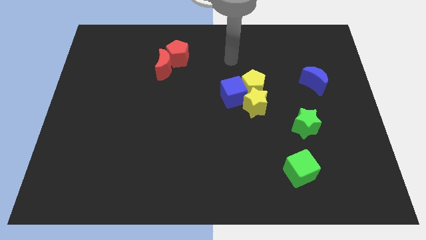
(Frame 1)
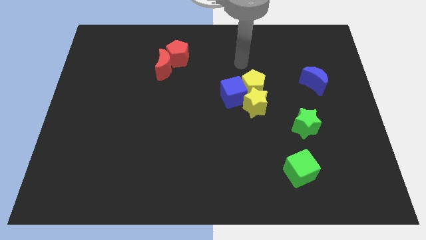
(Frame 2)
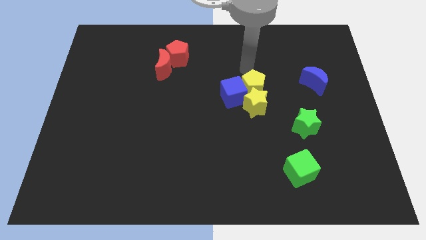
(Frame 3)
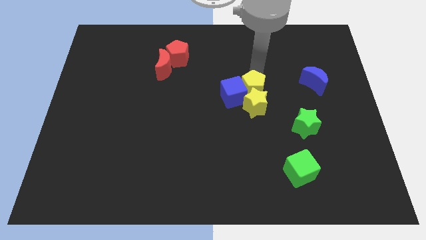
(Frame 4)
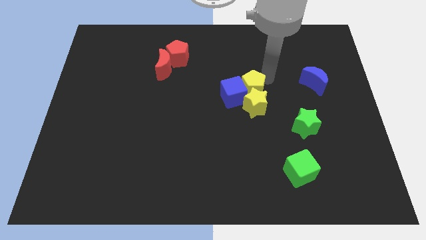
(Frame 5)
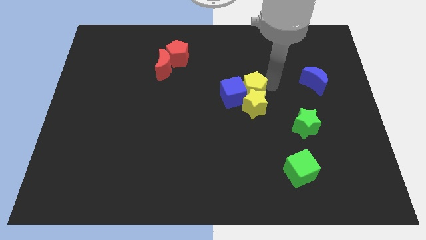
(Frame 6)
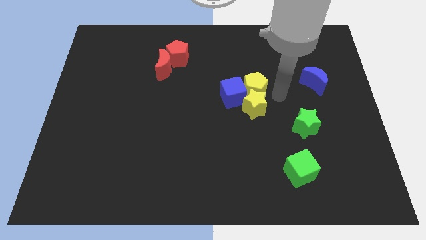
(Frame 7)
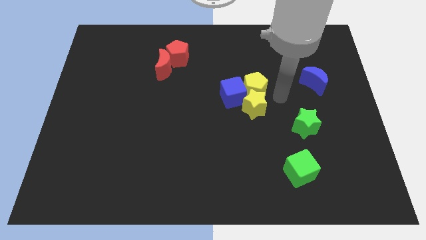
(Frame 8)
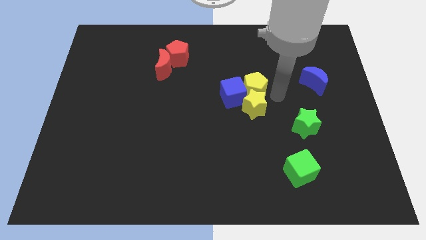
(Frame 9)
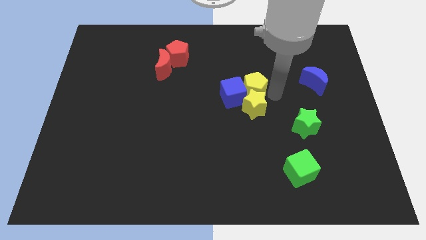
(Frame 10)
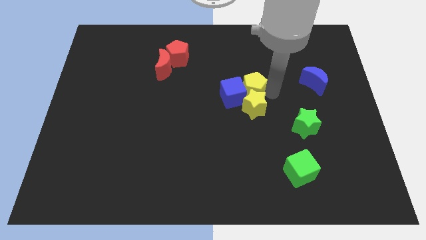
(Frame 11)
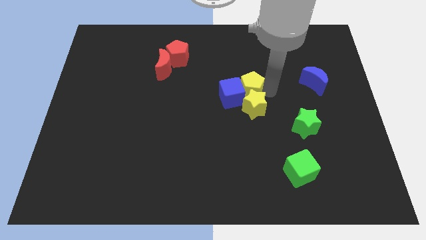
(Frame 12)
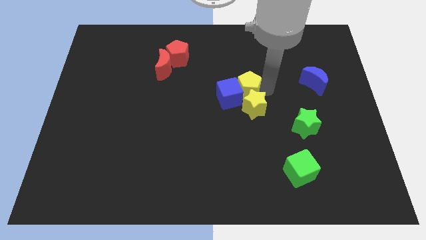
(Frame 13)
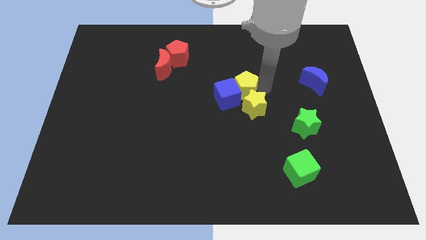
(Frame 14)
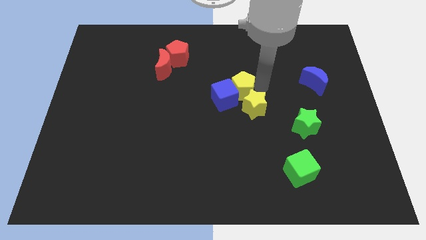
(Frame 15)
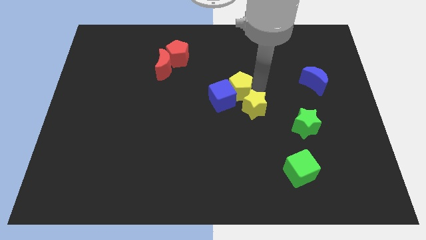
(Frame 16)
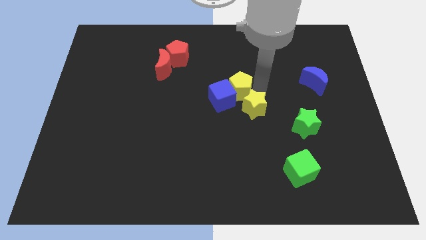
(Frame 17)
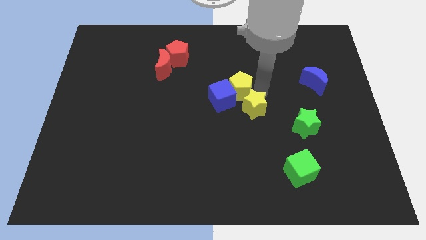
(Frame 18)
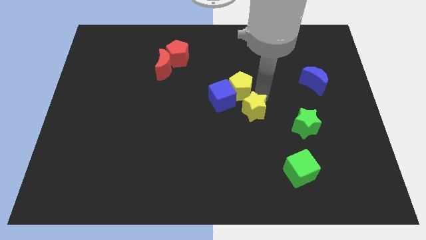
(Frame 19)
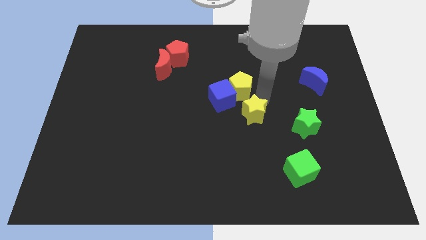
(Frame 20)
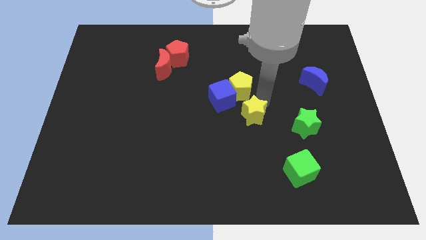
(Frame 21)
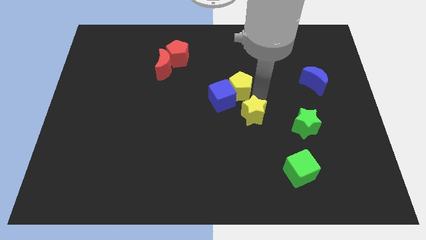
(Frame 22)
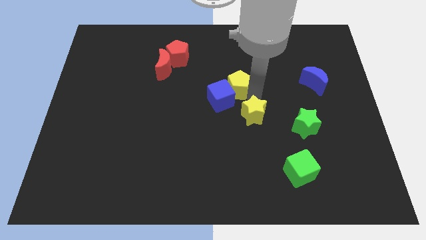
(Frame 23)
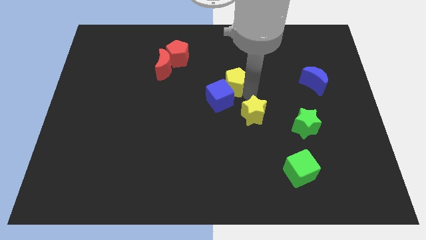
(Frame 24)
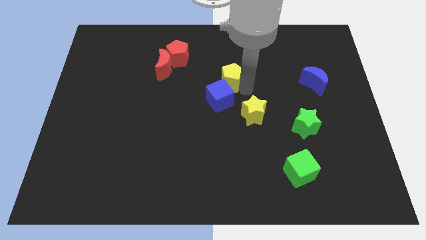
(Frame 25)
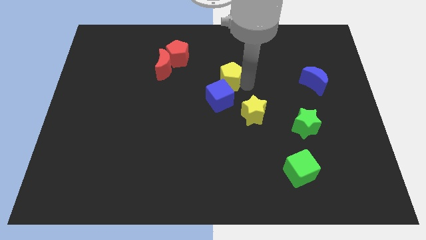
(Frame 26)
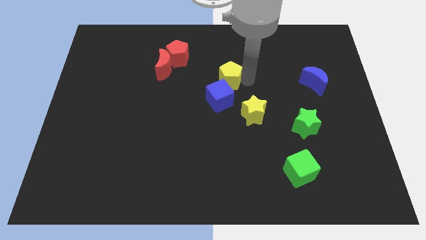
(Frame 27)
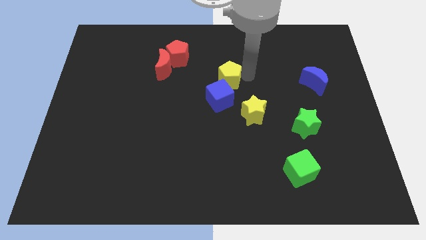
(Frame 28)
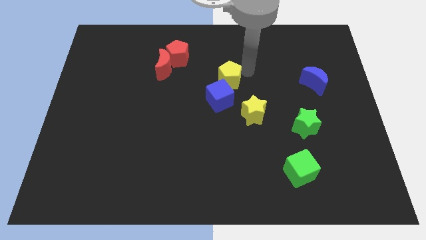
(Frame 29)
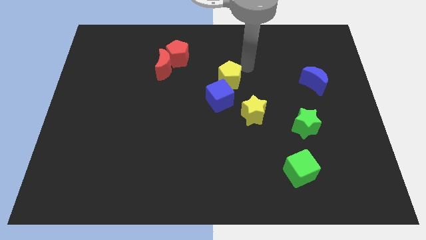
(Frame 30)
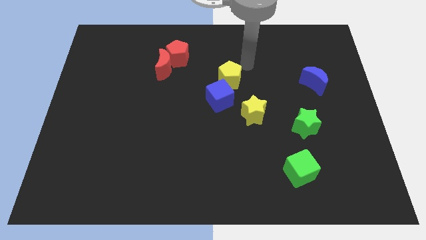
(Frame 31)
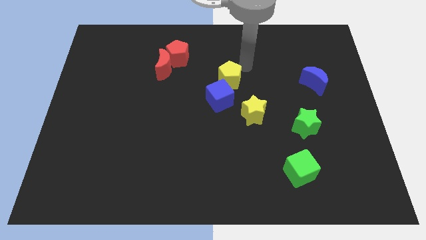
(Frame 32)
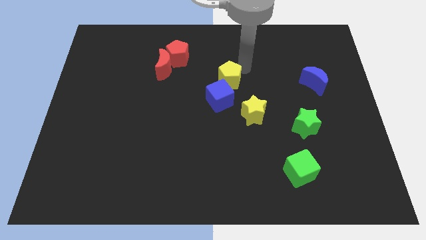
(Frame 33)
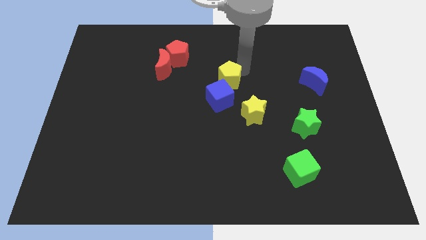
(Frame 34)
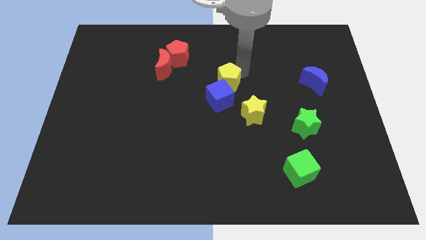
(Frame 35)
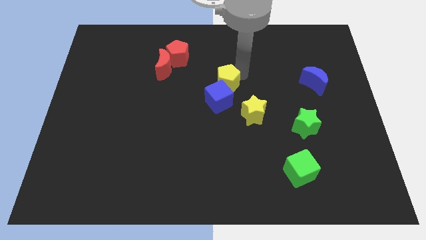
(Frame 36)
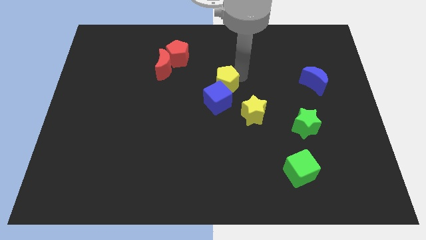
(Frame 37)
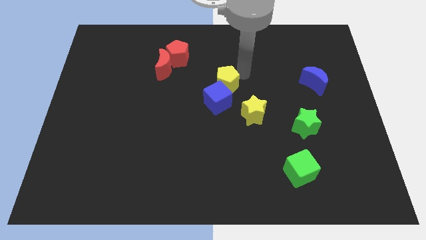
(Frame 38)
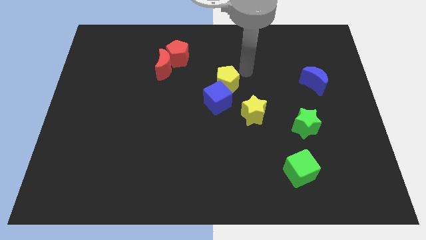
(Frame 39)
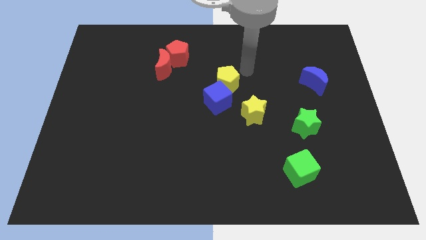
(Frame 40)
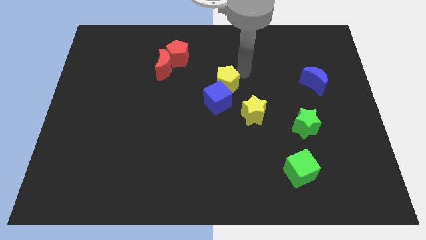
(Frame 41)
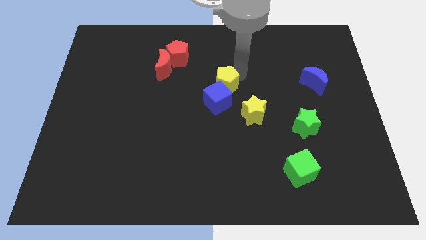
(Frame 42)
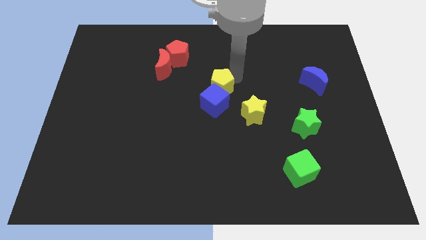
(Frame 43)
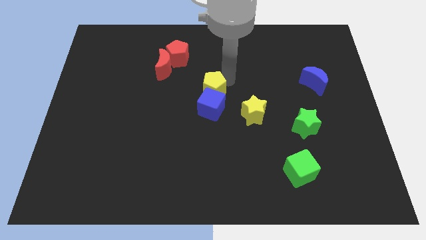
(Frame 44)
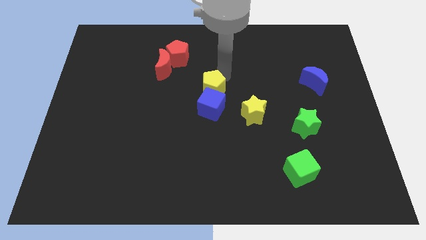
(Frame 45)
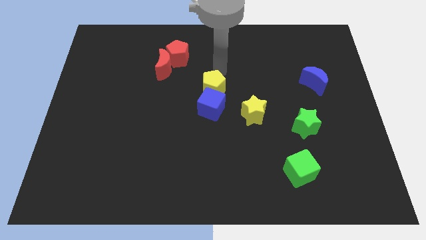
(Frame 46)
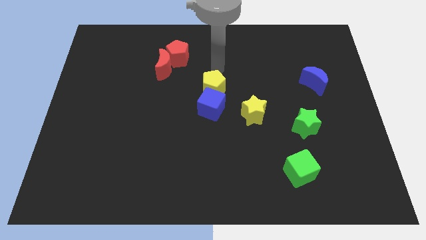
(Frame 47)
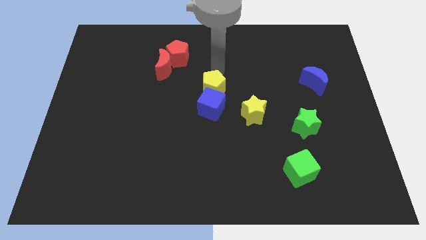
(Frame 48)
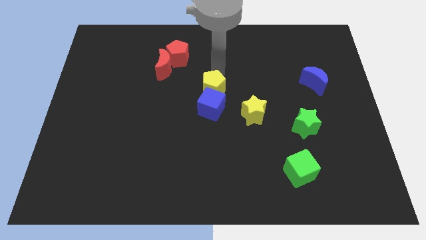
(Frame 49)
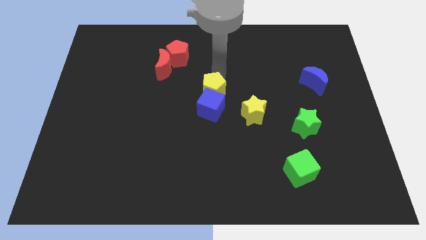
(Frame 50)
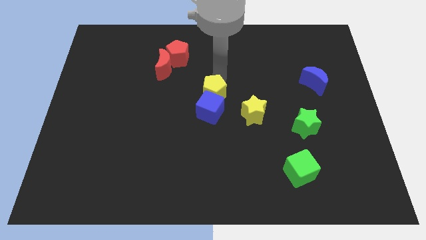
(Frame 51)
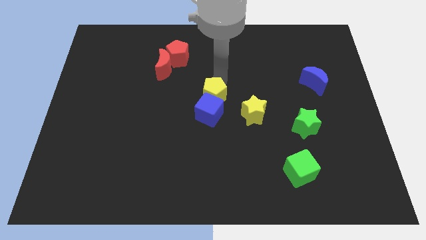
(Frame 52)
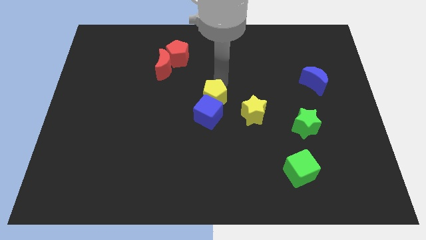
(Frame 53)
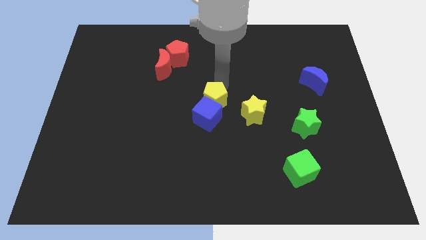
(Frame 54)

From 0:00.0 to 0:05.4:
push the yellow pentagon left of the yellow star

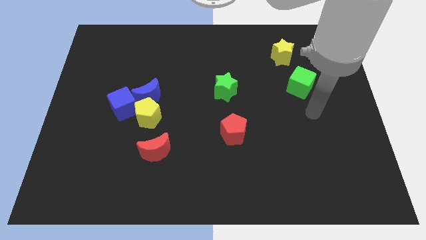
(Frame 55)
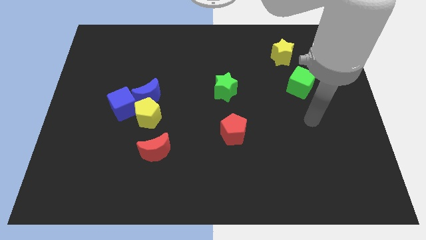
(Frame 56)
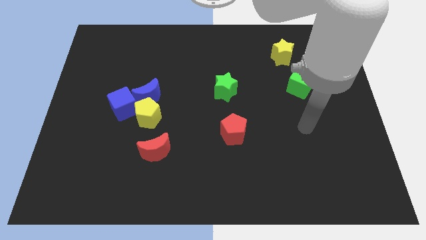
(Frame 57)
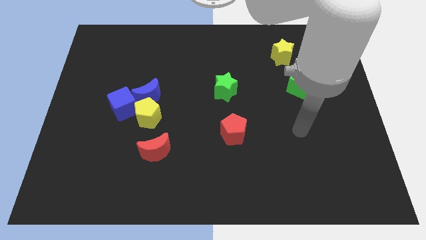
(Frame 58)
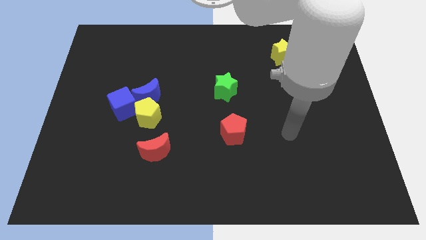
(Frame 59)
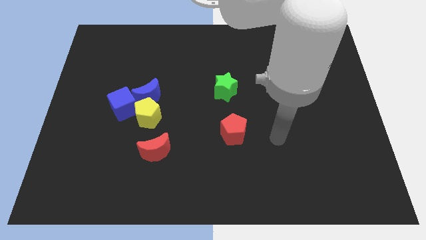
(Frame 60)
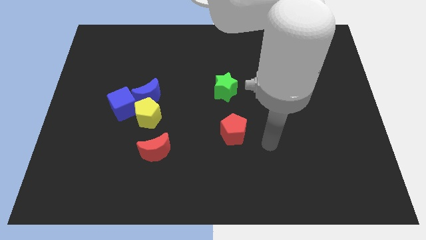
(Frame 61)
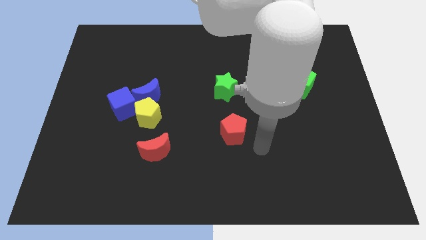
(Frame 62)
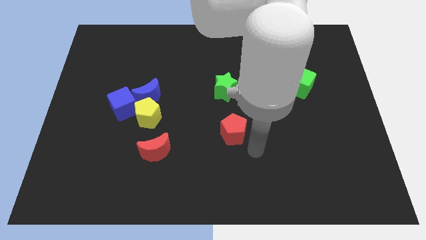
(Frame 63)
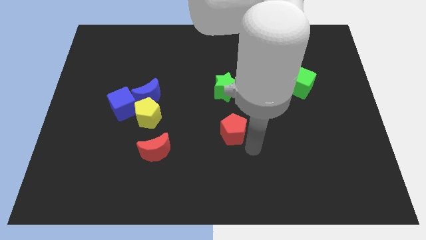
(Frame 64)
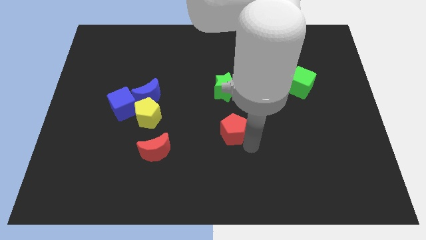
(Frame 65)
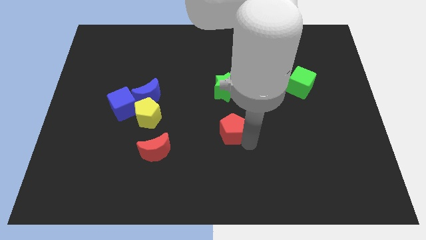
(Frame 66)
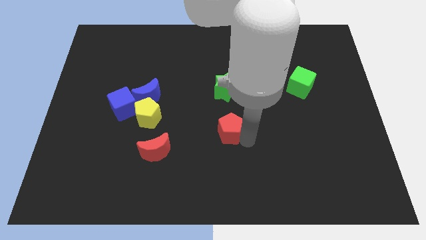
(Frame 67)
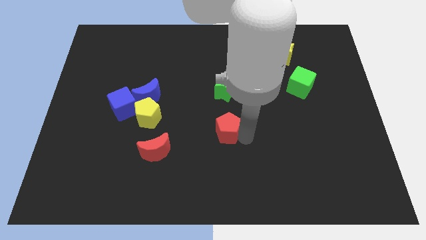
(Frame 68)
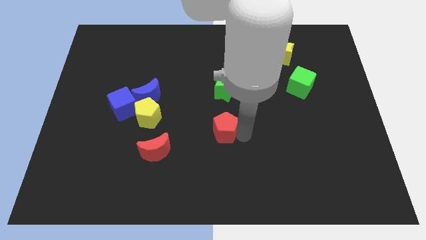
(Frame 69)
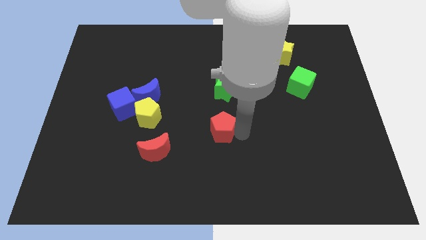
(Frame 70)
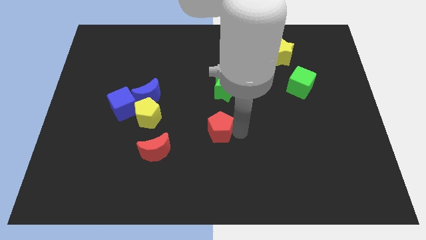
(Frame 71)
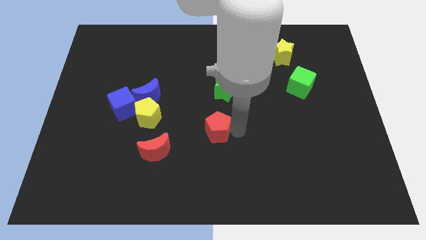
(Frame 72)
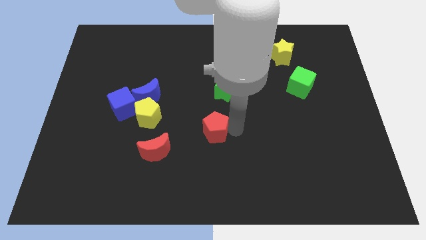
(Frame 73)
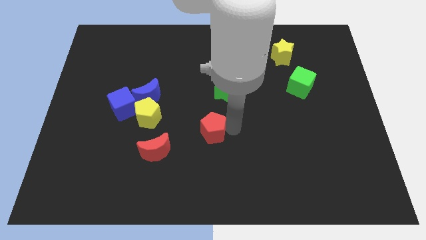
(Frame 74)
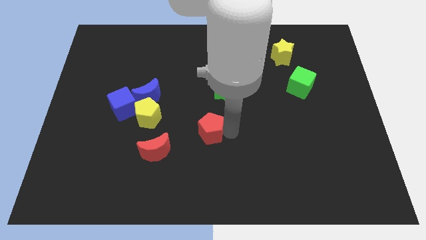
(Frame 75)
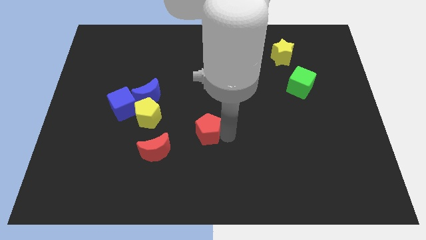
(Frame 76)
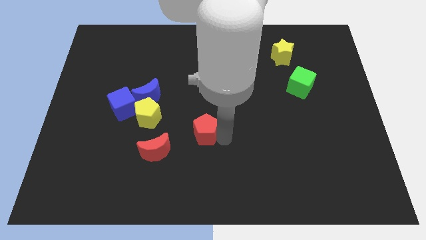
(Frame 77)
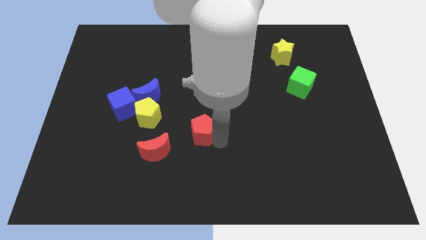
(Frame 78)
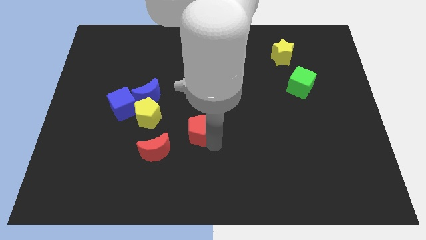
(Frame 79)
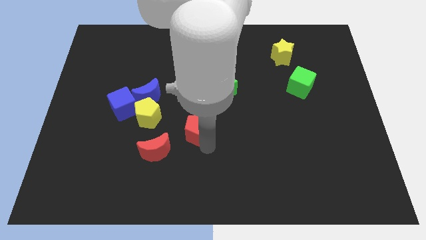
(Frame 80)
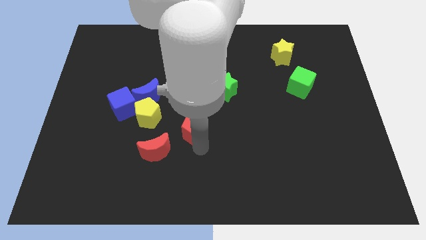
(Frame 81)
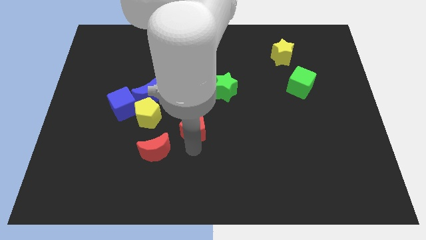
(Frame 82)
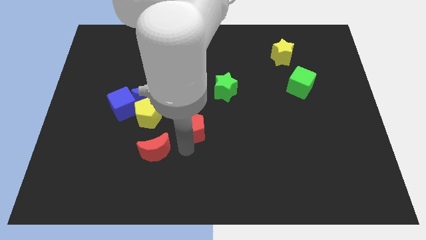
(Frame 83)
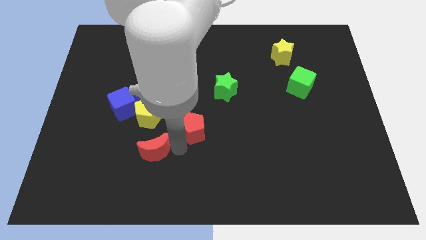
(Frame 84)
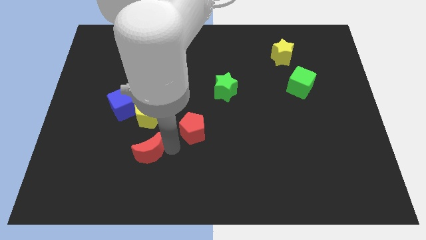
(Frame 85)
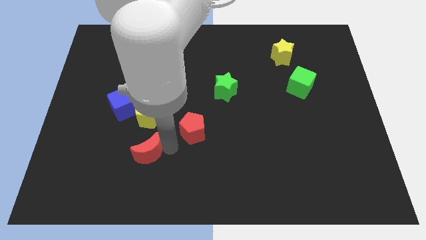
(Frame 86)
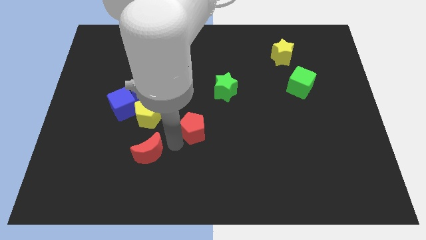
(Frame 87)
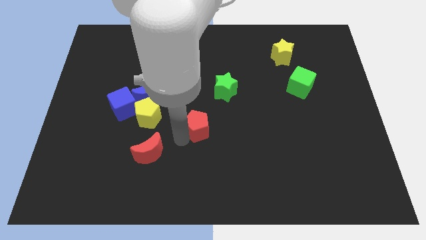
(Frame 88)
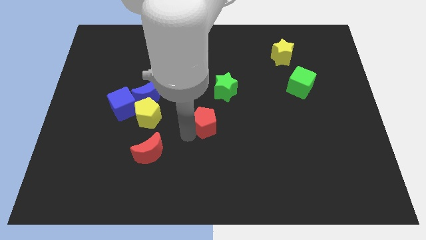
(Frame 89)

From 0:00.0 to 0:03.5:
put the red pentagon to the bottom left side of the green star
